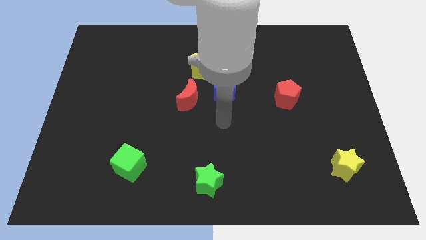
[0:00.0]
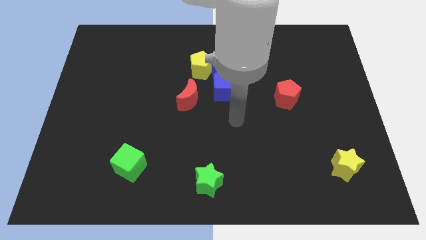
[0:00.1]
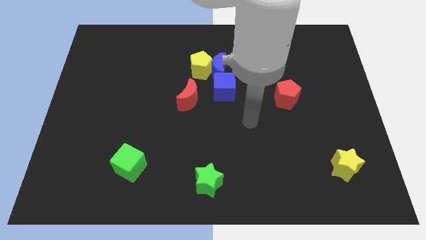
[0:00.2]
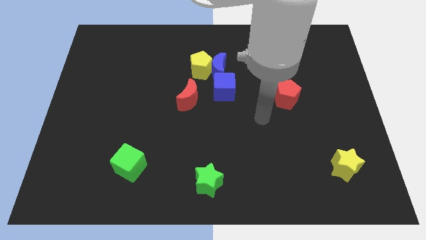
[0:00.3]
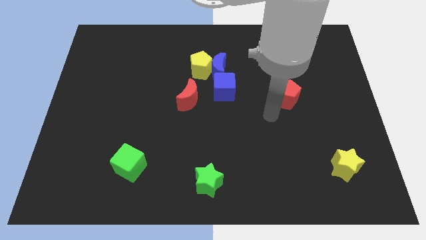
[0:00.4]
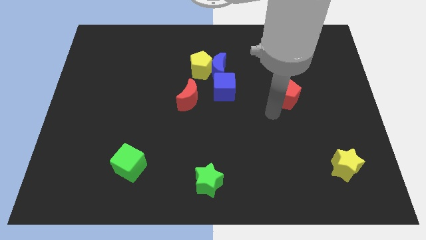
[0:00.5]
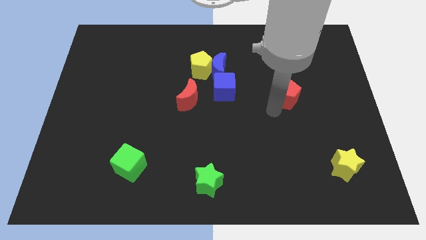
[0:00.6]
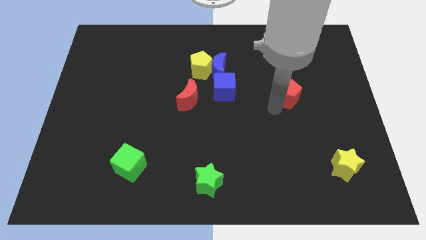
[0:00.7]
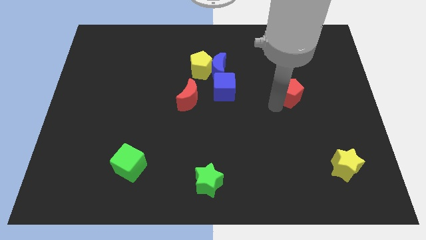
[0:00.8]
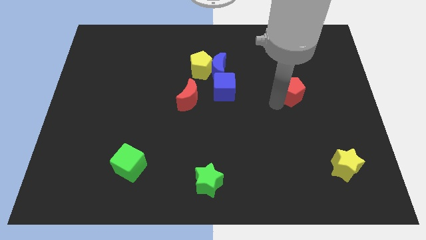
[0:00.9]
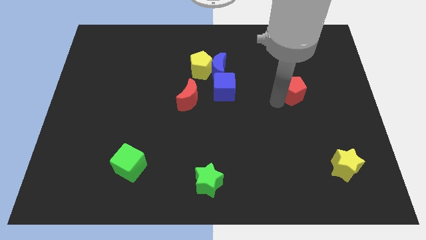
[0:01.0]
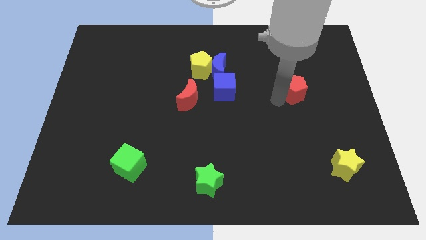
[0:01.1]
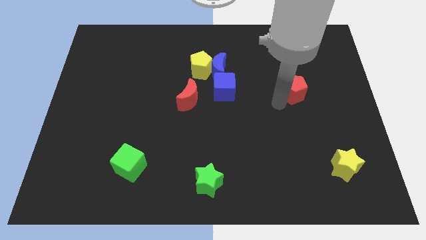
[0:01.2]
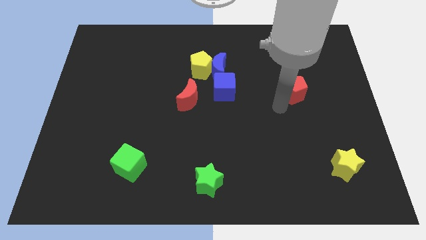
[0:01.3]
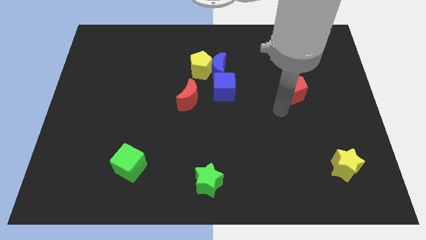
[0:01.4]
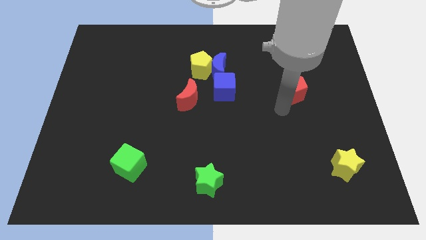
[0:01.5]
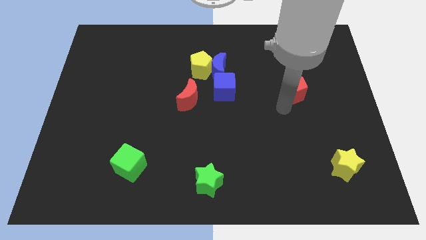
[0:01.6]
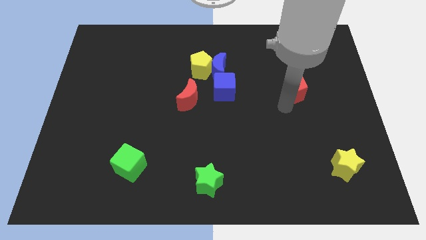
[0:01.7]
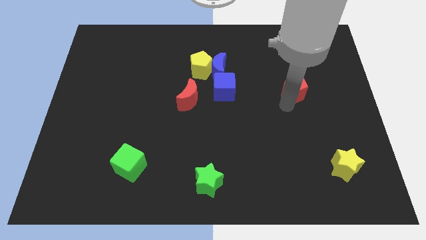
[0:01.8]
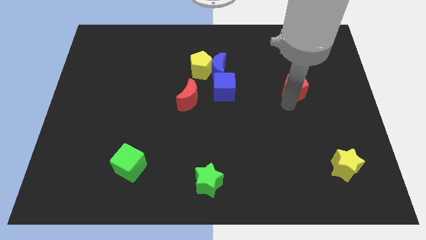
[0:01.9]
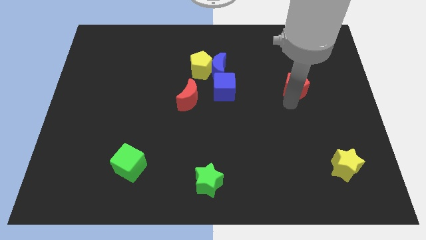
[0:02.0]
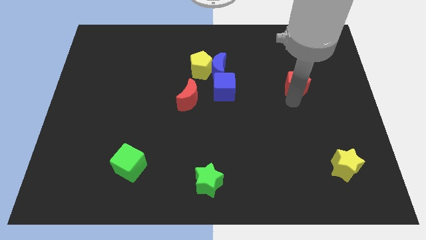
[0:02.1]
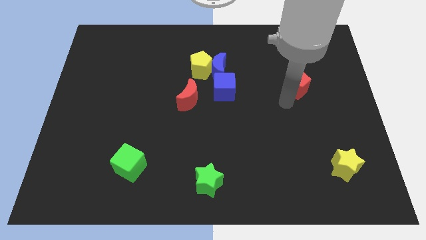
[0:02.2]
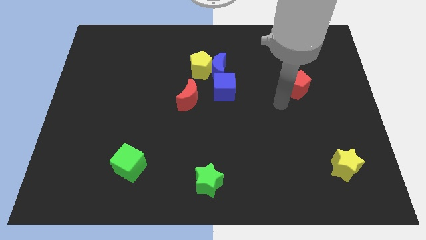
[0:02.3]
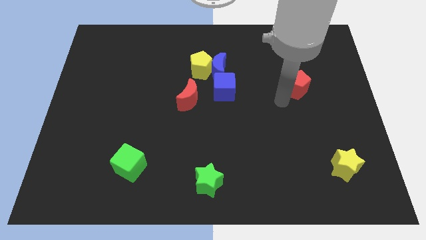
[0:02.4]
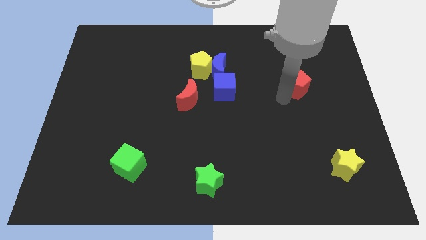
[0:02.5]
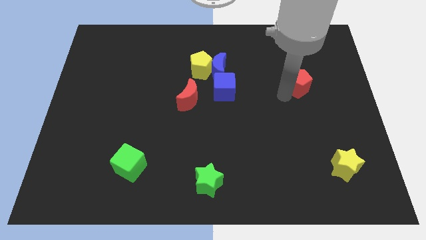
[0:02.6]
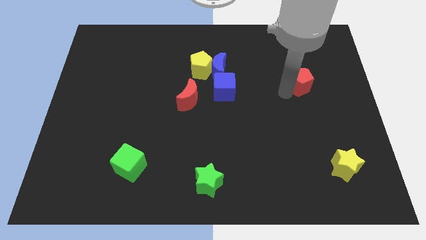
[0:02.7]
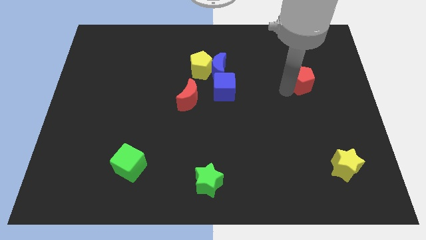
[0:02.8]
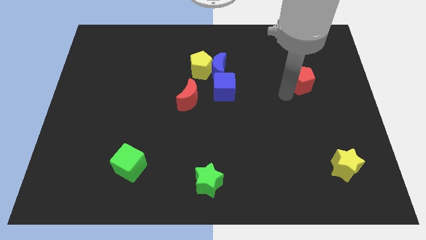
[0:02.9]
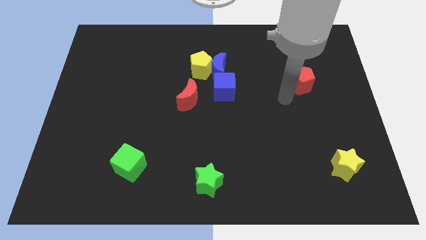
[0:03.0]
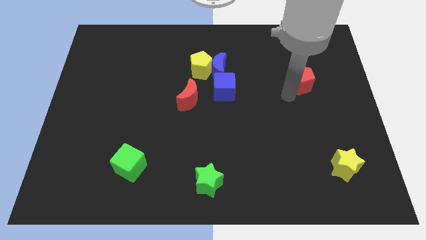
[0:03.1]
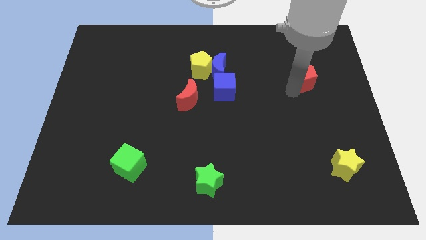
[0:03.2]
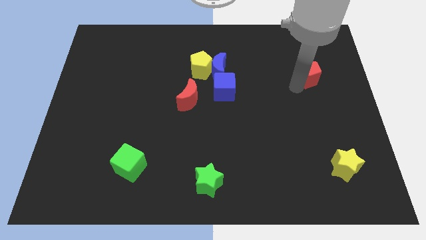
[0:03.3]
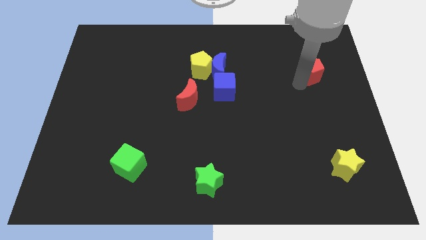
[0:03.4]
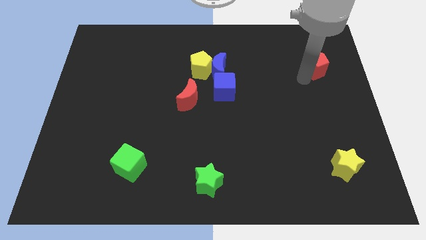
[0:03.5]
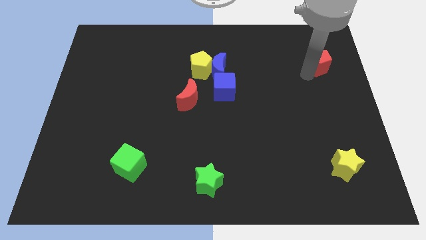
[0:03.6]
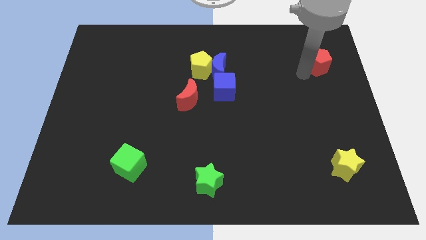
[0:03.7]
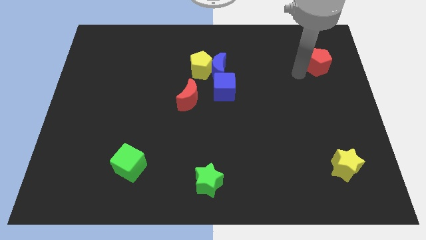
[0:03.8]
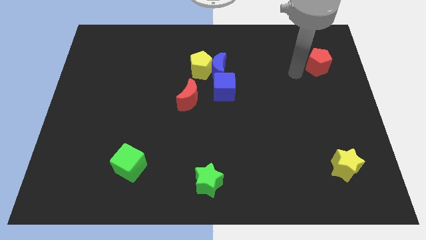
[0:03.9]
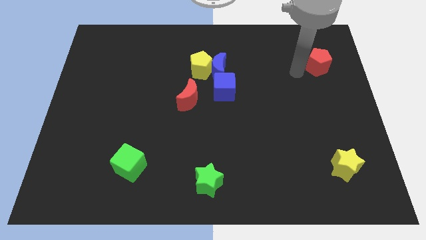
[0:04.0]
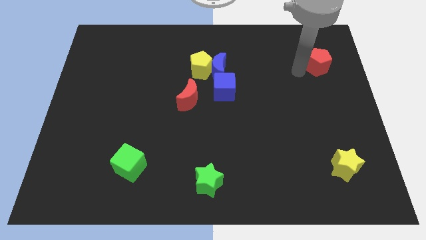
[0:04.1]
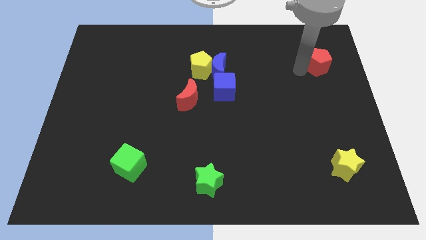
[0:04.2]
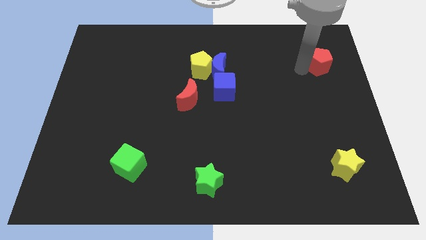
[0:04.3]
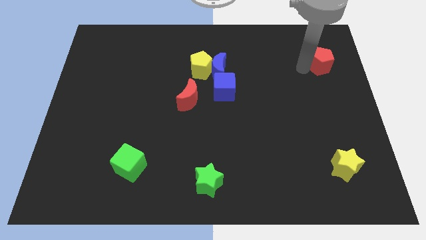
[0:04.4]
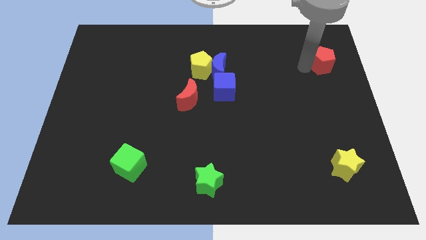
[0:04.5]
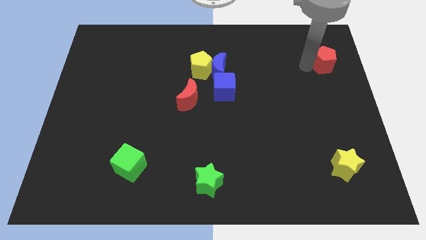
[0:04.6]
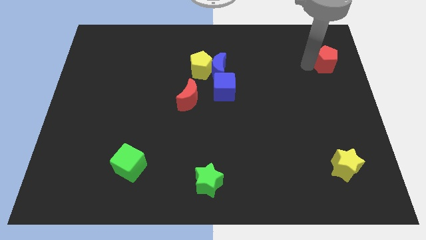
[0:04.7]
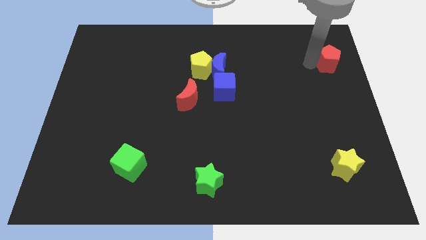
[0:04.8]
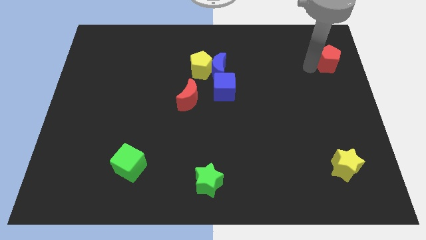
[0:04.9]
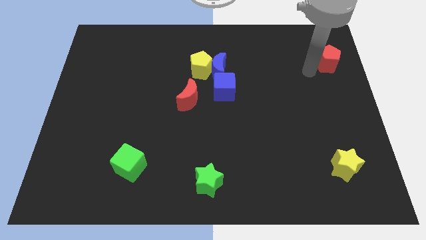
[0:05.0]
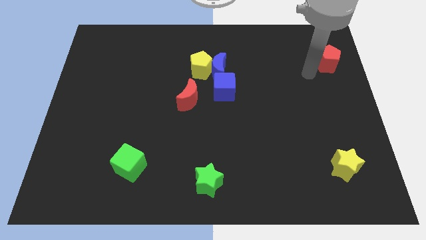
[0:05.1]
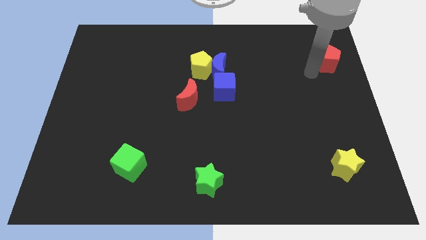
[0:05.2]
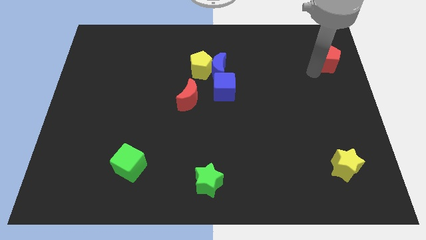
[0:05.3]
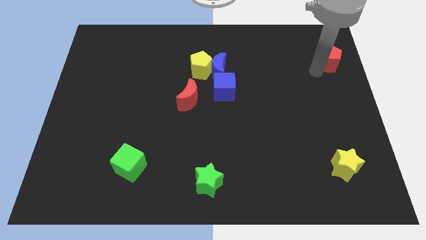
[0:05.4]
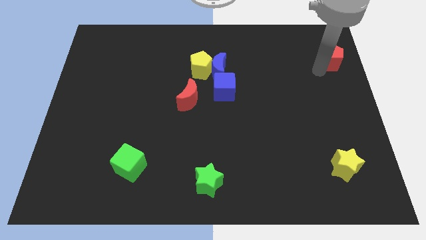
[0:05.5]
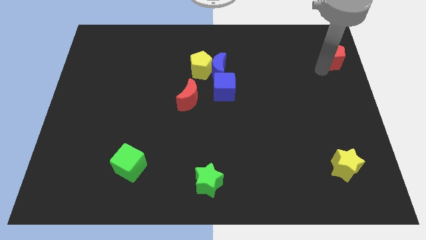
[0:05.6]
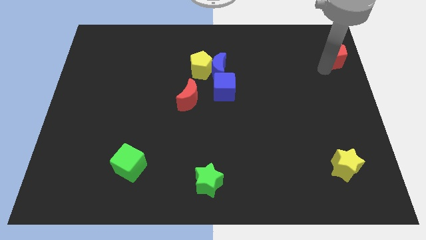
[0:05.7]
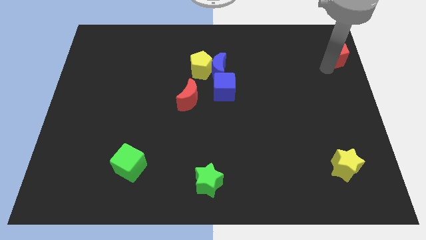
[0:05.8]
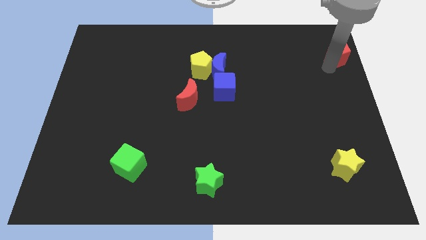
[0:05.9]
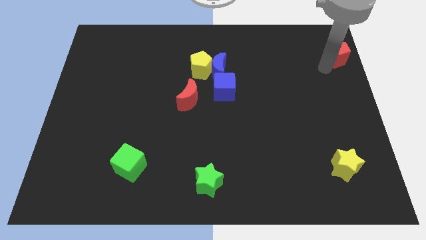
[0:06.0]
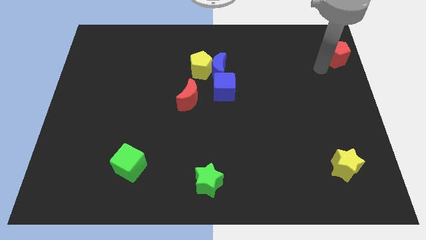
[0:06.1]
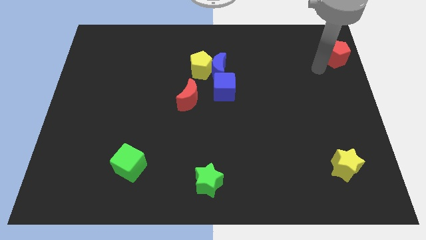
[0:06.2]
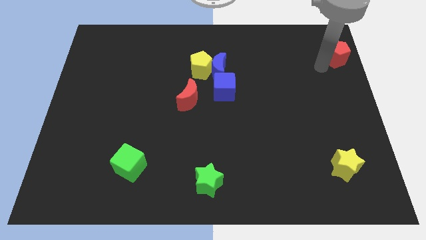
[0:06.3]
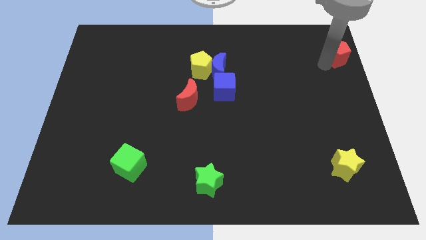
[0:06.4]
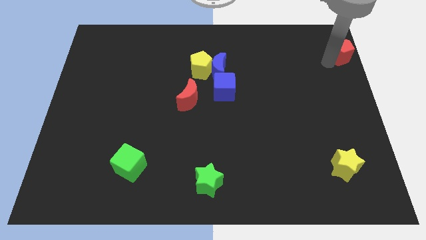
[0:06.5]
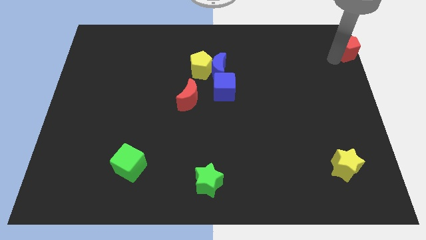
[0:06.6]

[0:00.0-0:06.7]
move the red pentagon to the top right of the board

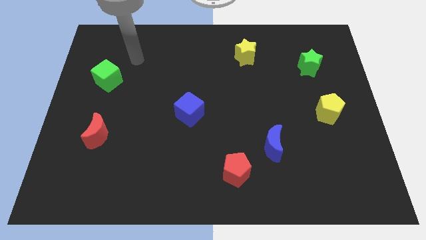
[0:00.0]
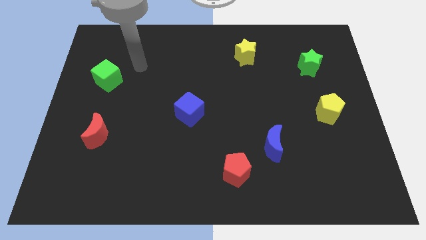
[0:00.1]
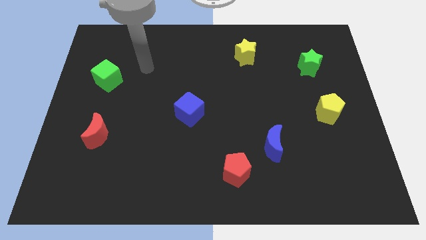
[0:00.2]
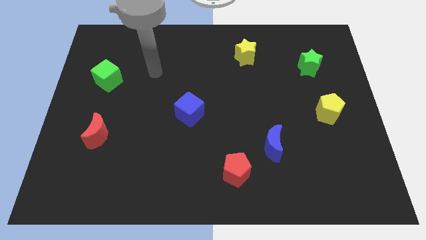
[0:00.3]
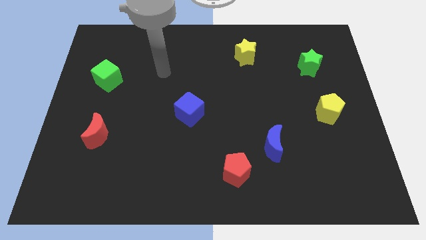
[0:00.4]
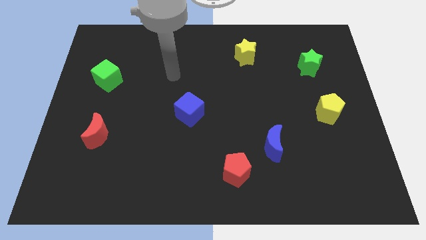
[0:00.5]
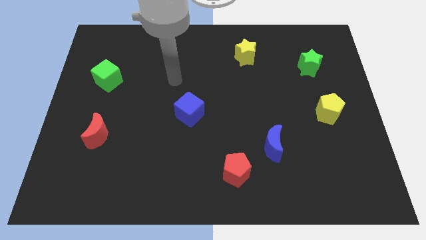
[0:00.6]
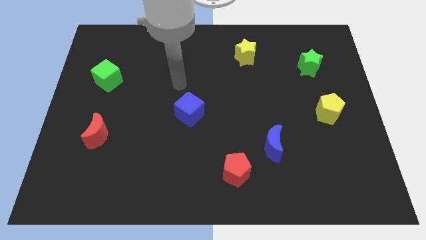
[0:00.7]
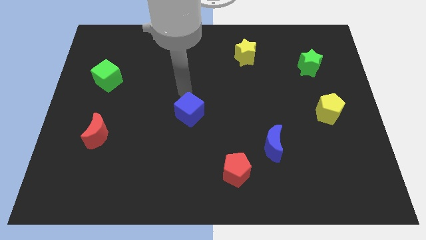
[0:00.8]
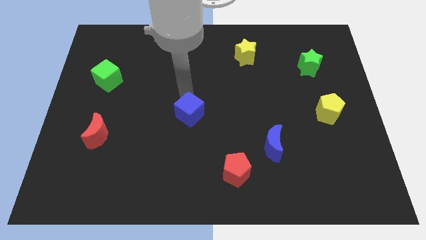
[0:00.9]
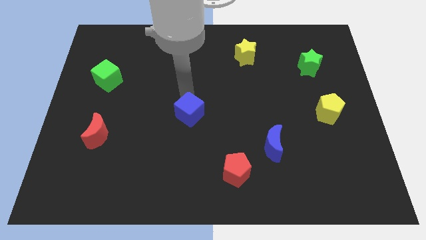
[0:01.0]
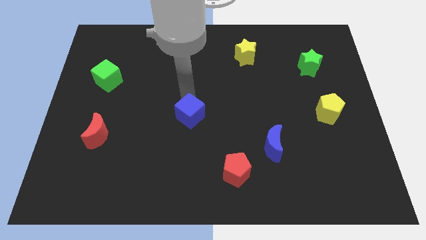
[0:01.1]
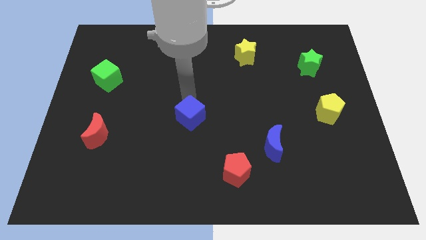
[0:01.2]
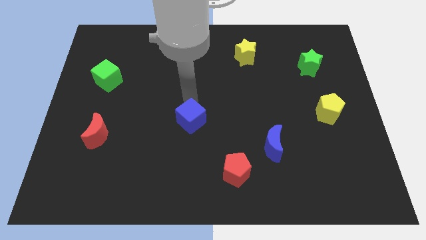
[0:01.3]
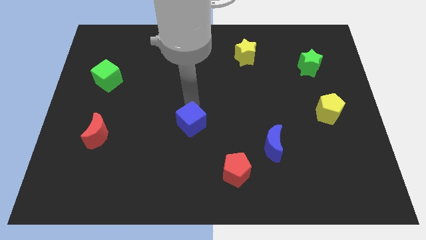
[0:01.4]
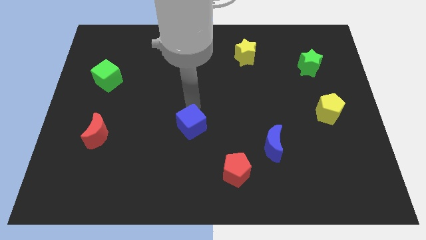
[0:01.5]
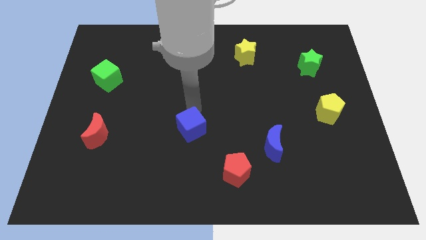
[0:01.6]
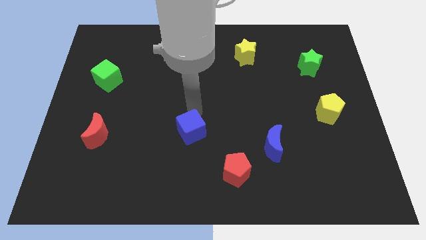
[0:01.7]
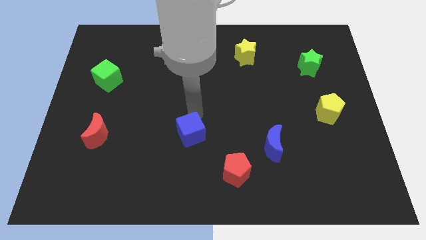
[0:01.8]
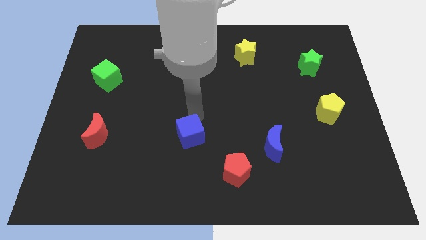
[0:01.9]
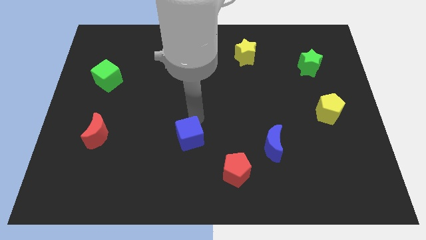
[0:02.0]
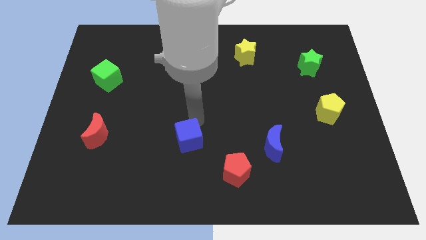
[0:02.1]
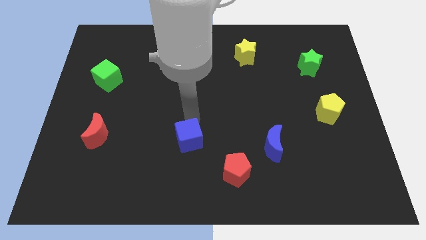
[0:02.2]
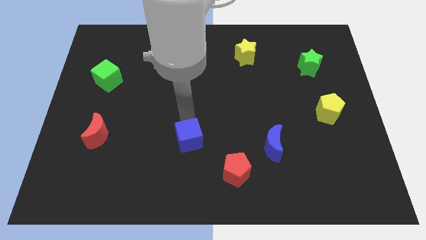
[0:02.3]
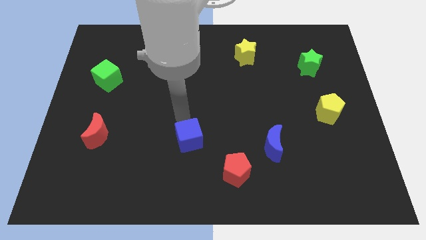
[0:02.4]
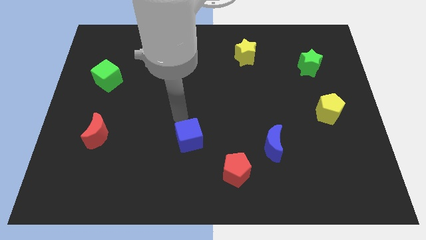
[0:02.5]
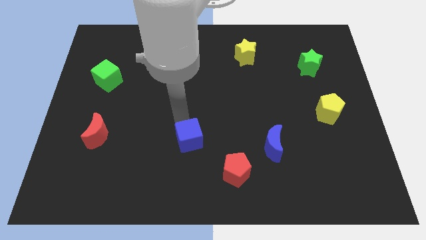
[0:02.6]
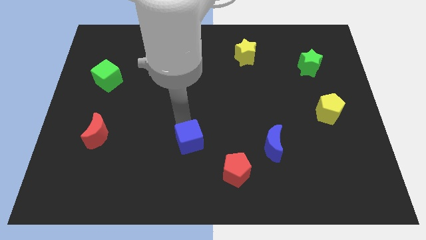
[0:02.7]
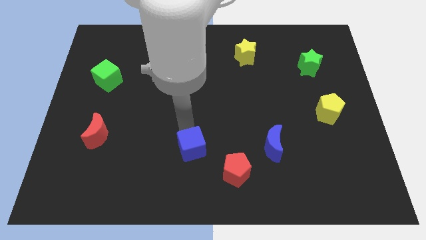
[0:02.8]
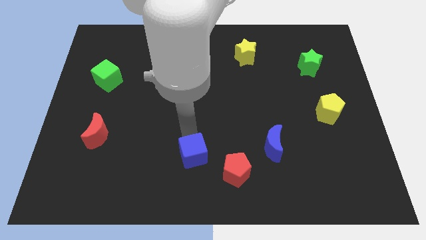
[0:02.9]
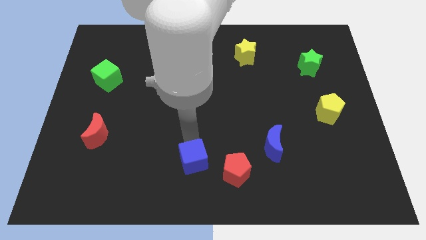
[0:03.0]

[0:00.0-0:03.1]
slide the blue cube to the bottom
